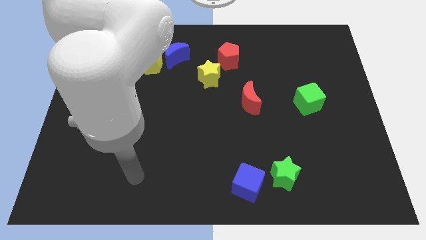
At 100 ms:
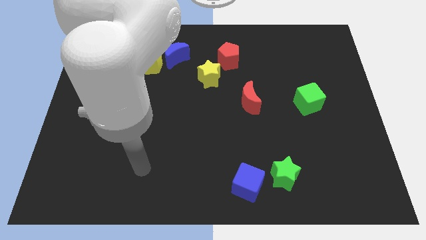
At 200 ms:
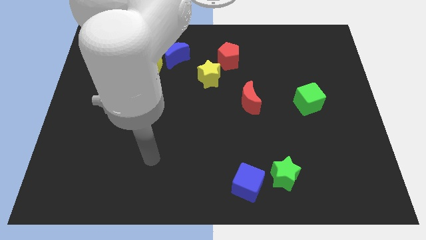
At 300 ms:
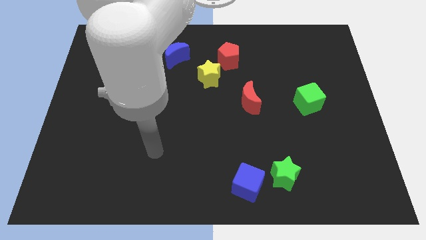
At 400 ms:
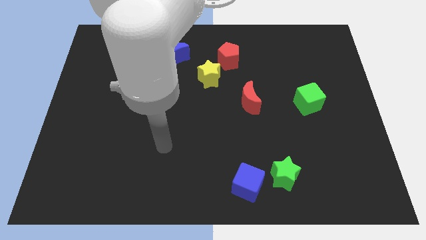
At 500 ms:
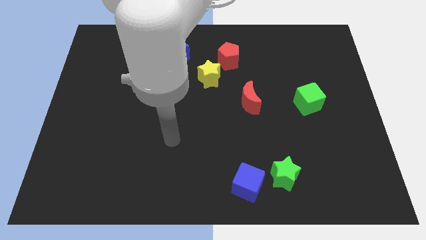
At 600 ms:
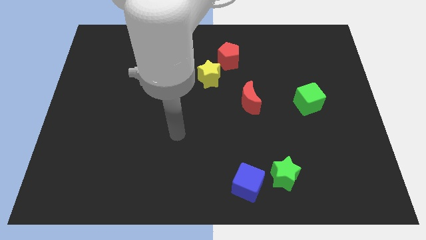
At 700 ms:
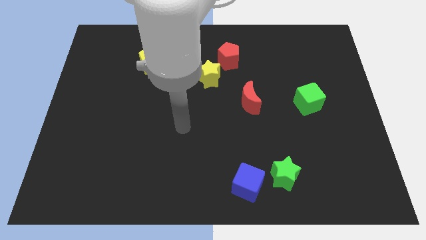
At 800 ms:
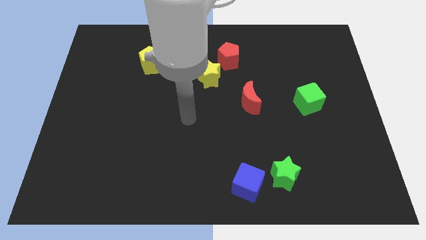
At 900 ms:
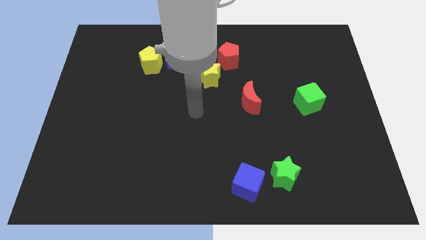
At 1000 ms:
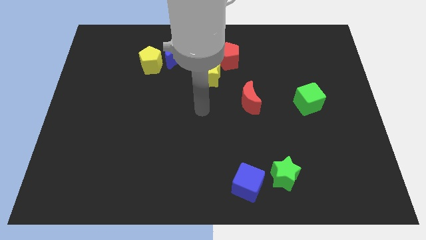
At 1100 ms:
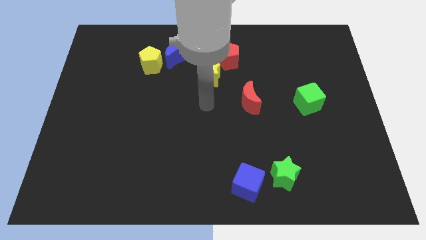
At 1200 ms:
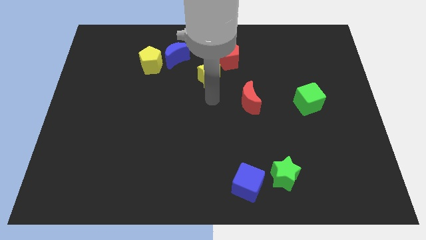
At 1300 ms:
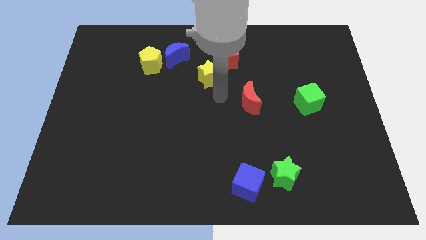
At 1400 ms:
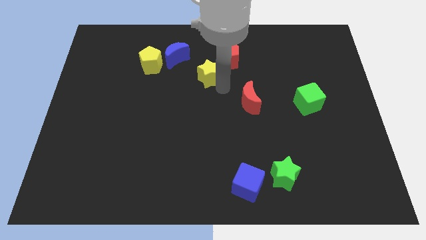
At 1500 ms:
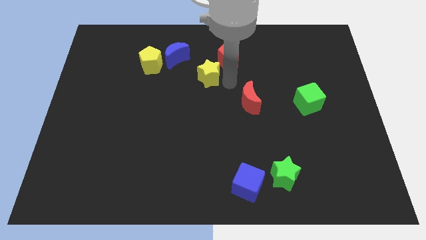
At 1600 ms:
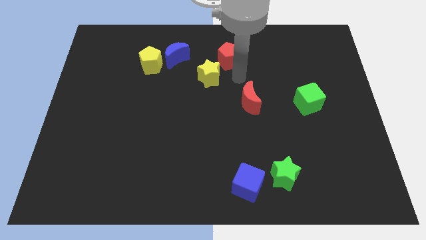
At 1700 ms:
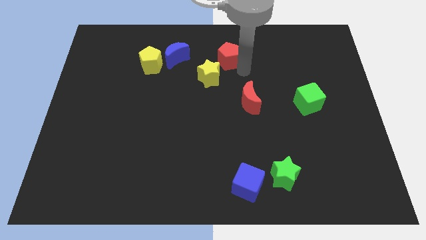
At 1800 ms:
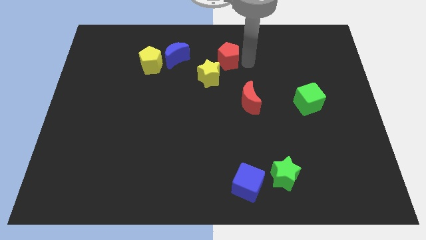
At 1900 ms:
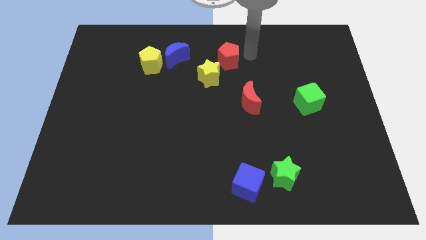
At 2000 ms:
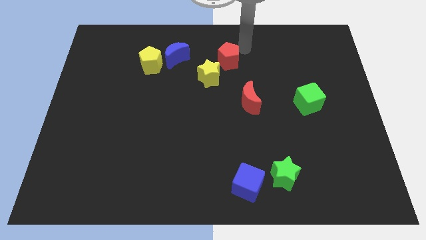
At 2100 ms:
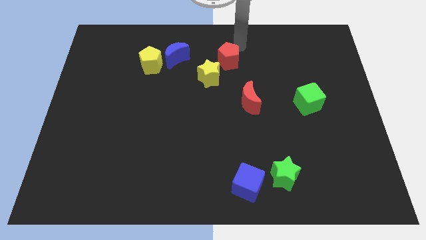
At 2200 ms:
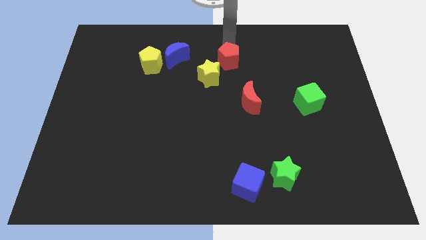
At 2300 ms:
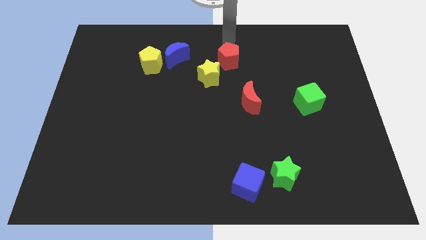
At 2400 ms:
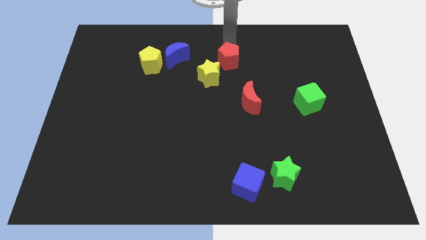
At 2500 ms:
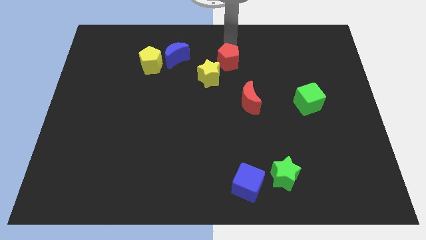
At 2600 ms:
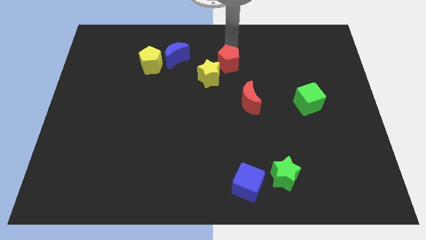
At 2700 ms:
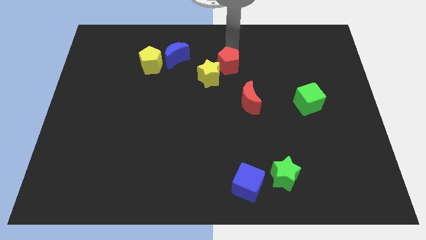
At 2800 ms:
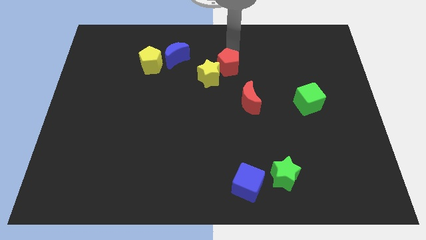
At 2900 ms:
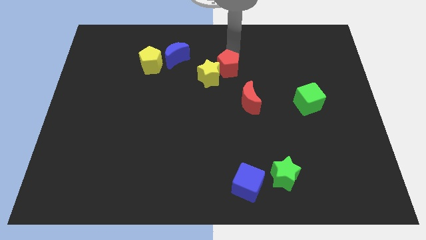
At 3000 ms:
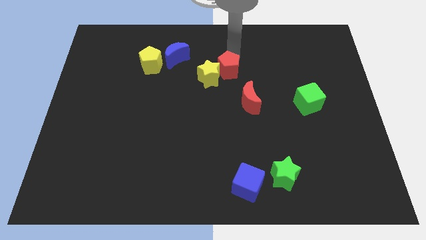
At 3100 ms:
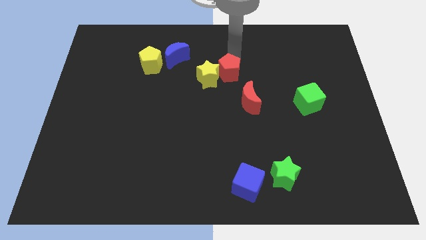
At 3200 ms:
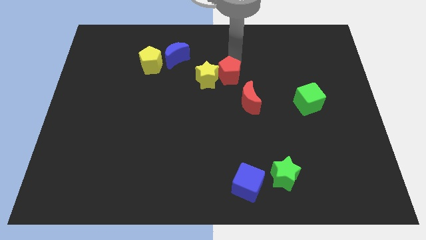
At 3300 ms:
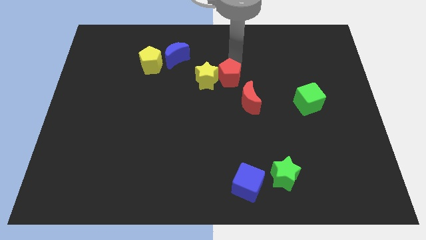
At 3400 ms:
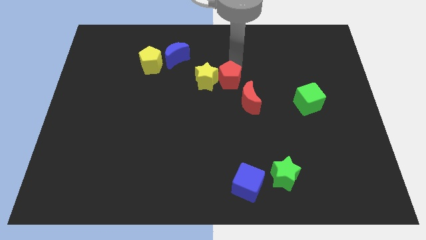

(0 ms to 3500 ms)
slide the red pentagon downwards a little bit

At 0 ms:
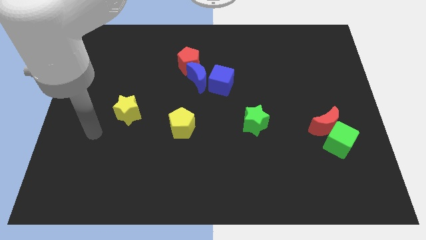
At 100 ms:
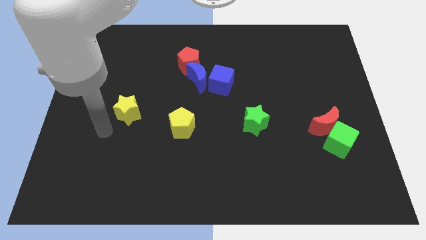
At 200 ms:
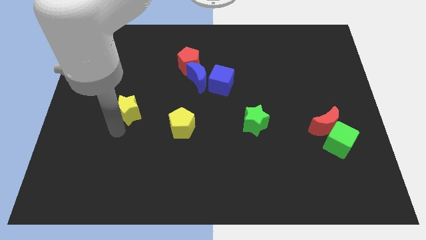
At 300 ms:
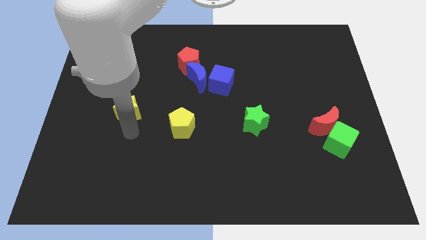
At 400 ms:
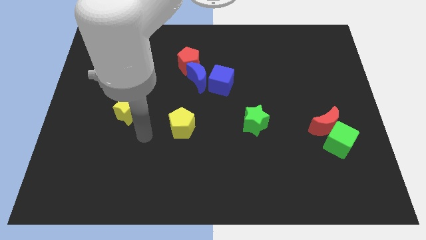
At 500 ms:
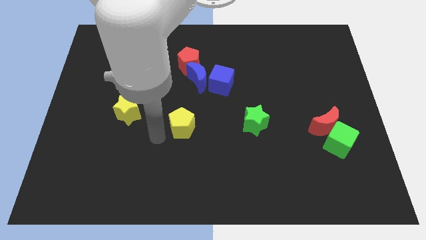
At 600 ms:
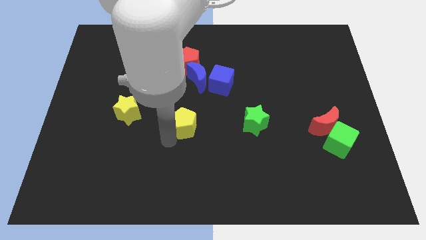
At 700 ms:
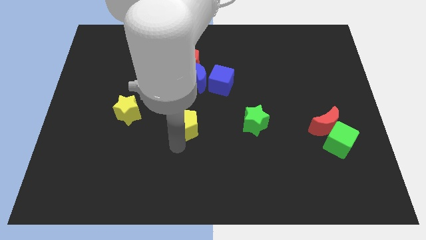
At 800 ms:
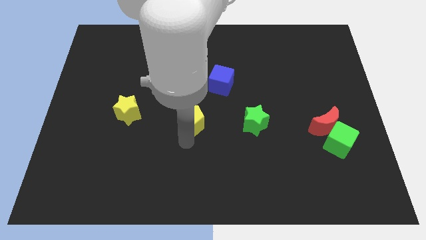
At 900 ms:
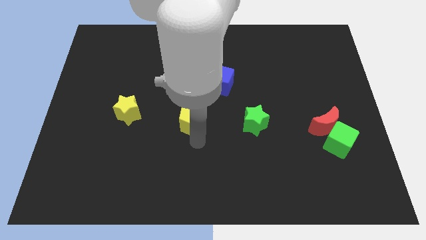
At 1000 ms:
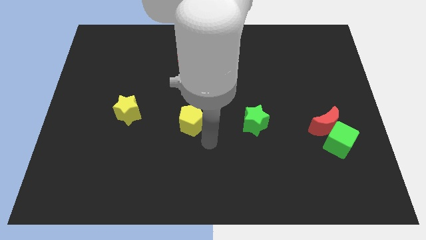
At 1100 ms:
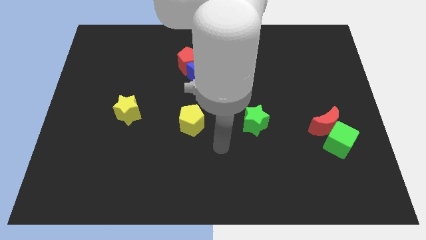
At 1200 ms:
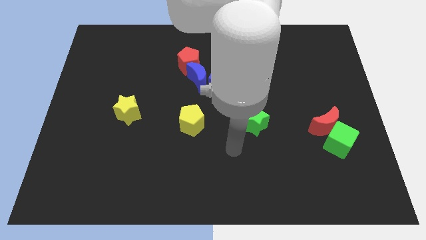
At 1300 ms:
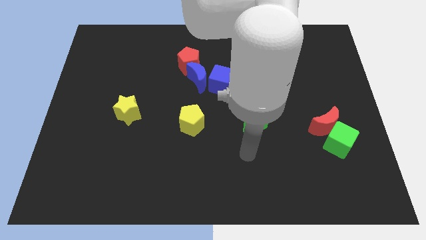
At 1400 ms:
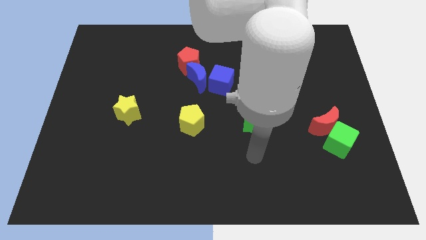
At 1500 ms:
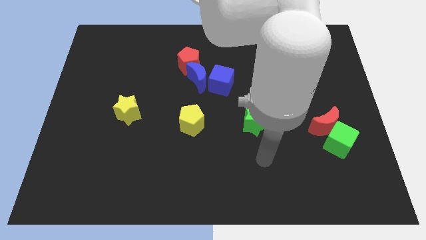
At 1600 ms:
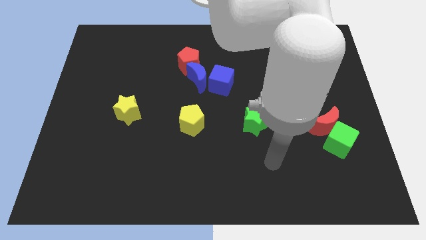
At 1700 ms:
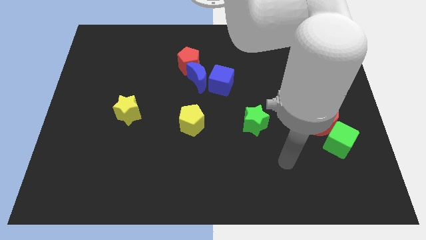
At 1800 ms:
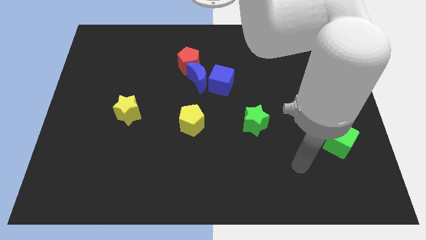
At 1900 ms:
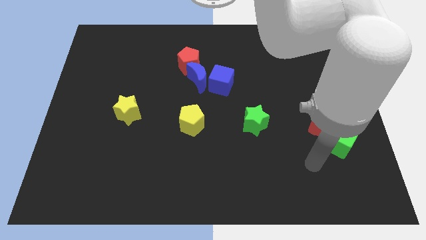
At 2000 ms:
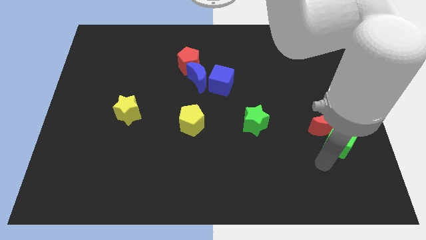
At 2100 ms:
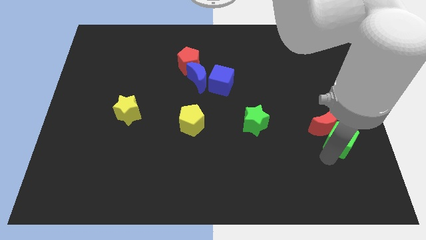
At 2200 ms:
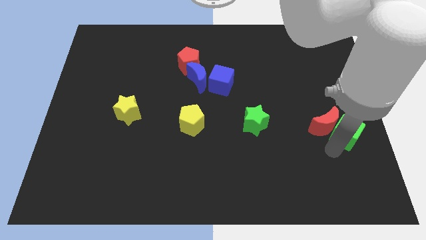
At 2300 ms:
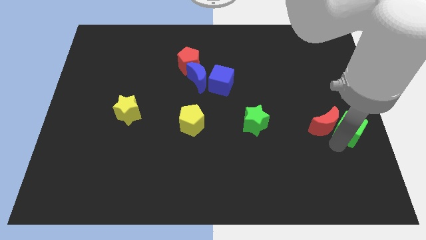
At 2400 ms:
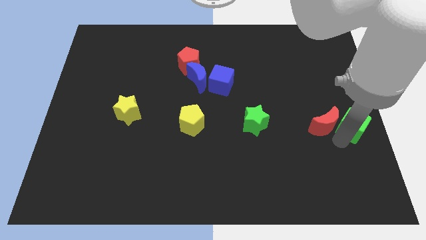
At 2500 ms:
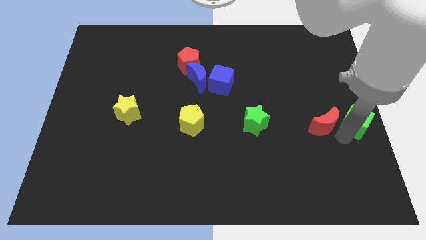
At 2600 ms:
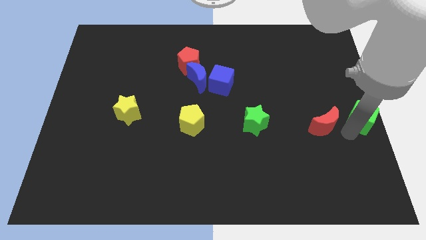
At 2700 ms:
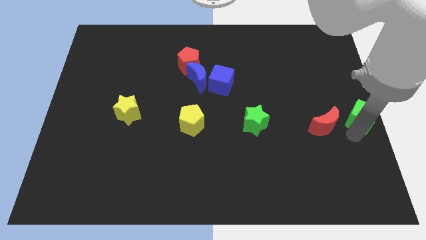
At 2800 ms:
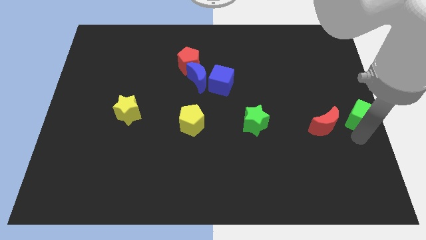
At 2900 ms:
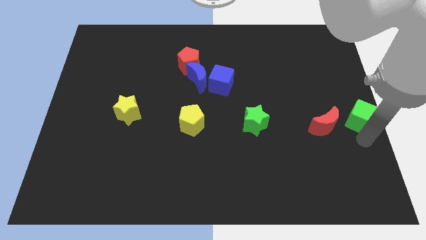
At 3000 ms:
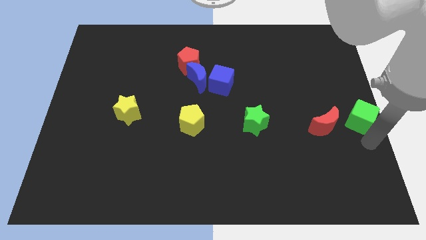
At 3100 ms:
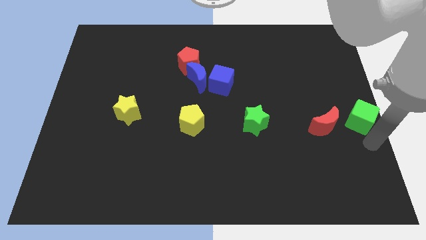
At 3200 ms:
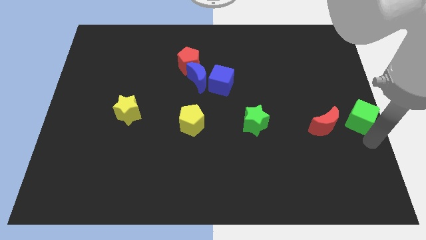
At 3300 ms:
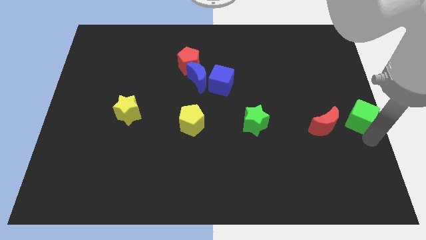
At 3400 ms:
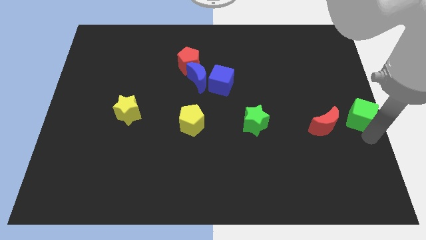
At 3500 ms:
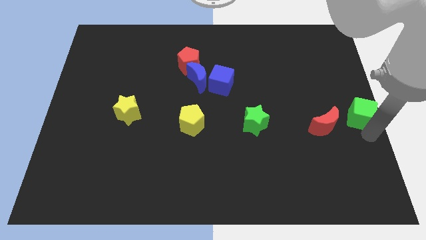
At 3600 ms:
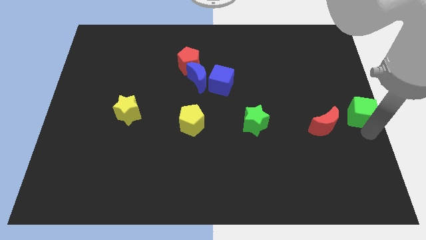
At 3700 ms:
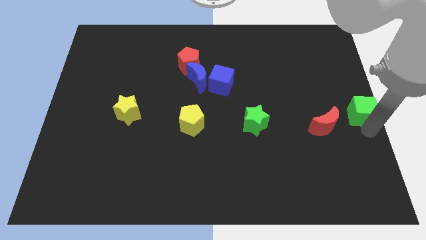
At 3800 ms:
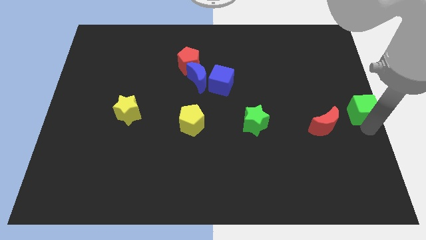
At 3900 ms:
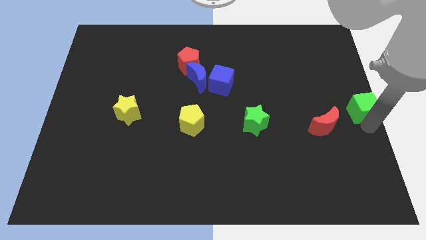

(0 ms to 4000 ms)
slightly push the green cube upwards

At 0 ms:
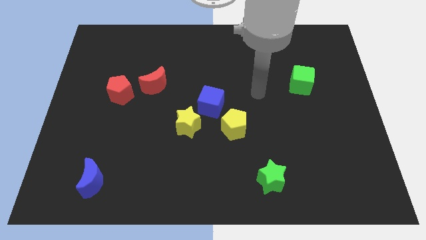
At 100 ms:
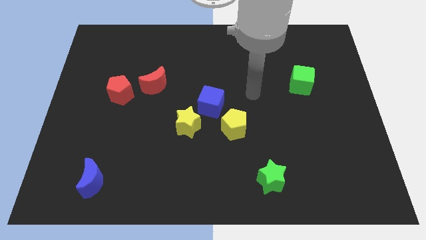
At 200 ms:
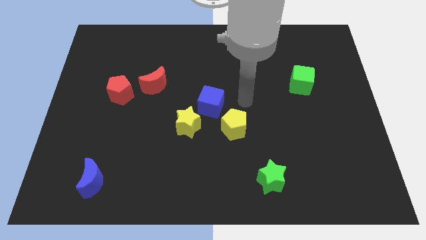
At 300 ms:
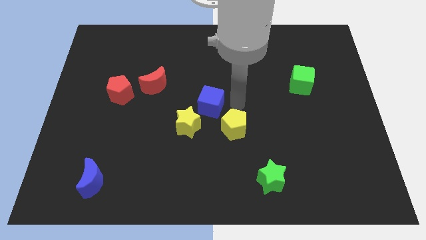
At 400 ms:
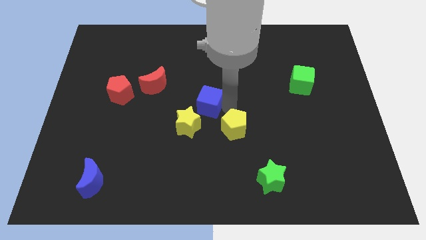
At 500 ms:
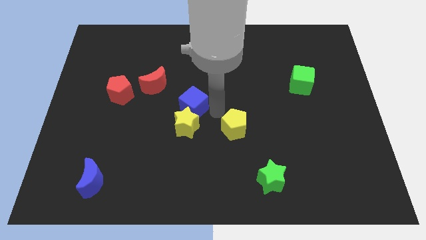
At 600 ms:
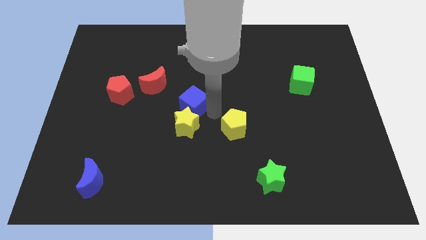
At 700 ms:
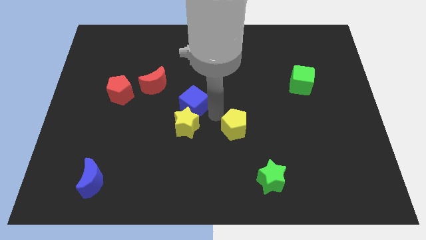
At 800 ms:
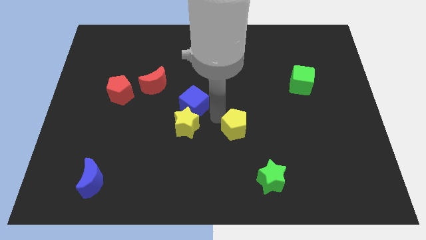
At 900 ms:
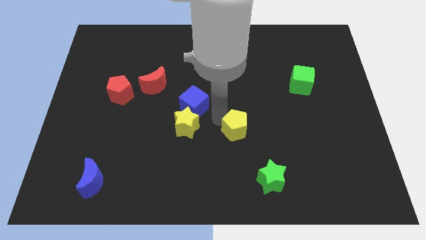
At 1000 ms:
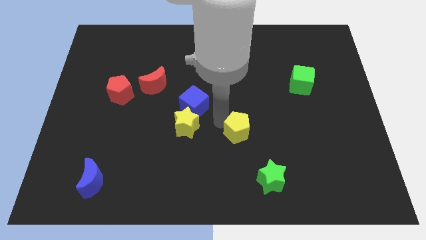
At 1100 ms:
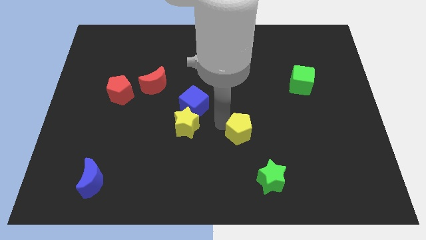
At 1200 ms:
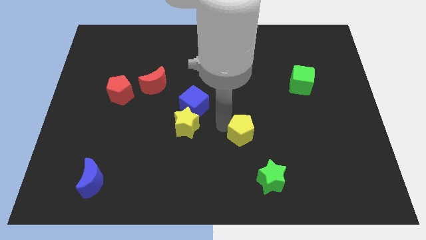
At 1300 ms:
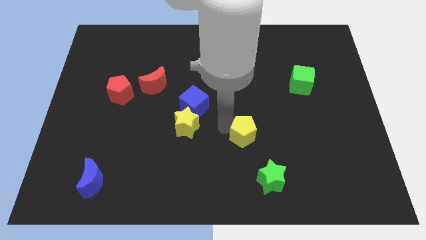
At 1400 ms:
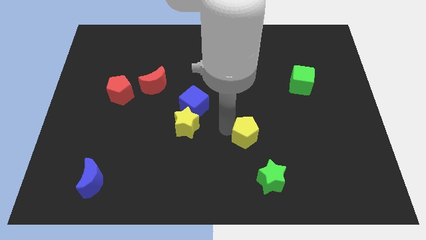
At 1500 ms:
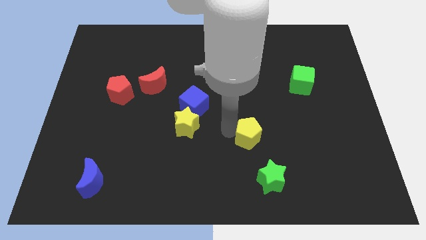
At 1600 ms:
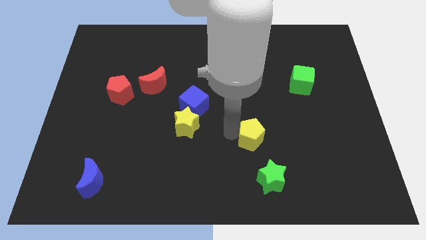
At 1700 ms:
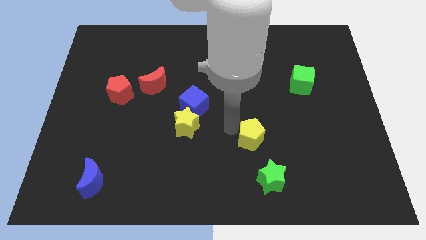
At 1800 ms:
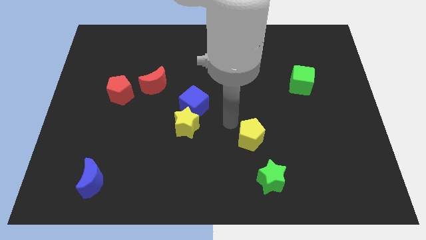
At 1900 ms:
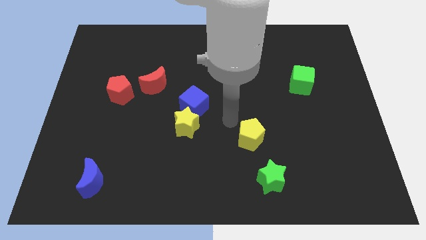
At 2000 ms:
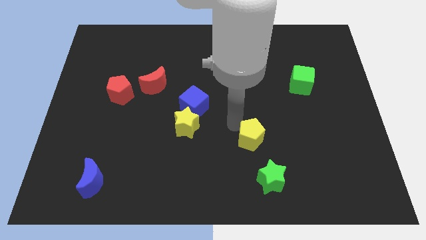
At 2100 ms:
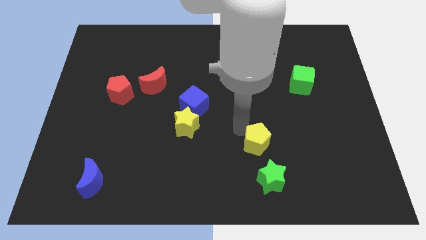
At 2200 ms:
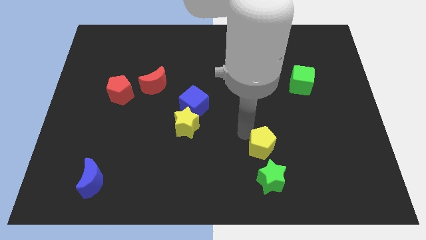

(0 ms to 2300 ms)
push the yellow pentagon slightly down and then to the right
